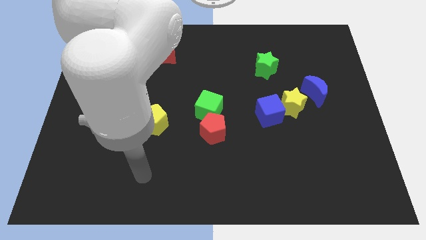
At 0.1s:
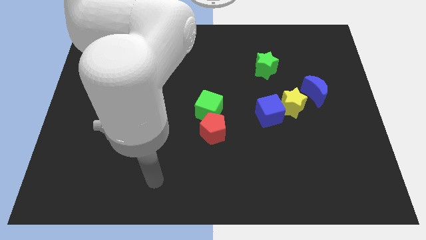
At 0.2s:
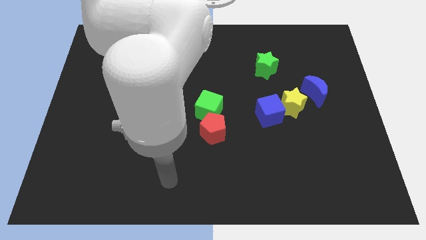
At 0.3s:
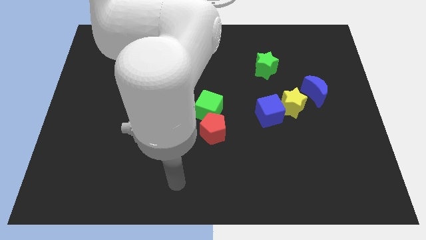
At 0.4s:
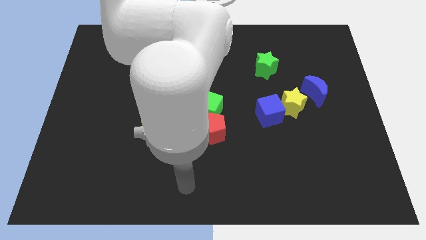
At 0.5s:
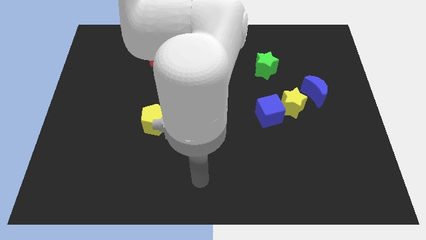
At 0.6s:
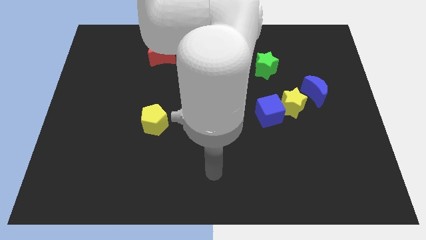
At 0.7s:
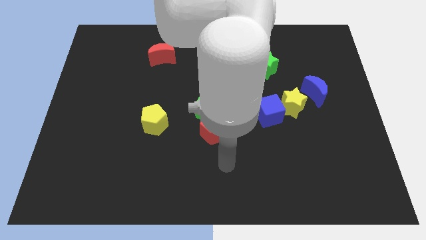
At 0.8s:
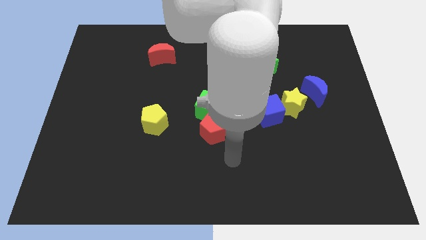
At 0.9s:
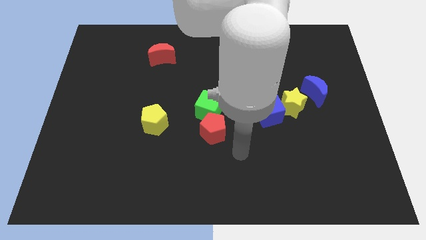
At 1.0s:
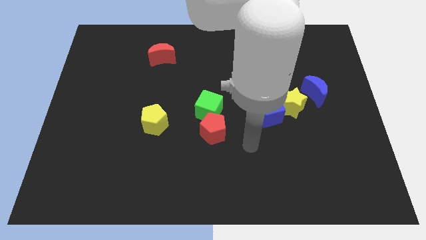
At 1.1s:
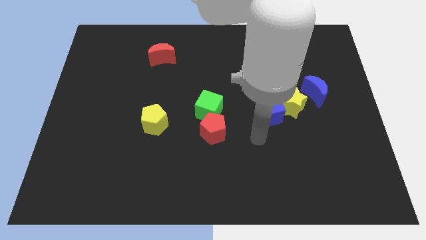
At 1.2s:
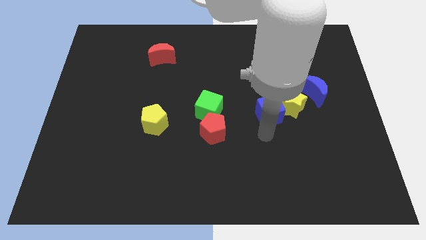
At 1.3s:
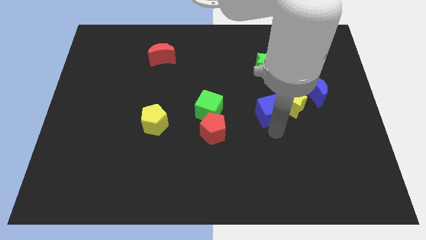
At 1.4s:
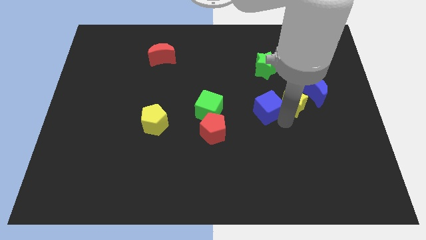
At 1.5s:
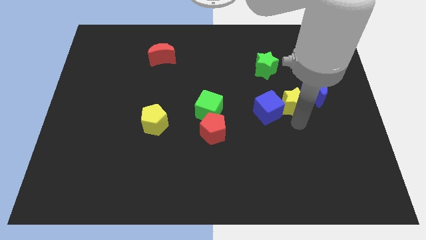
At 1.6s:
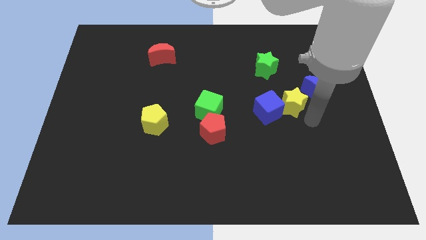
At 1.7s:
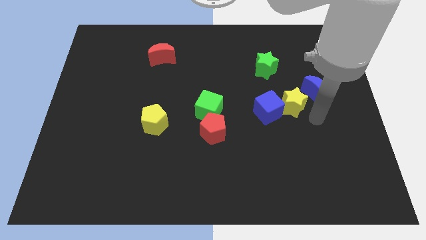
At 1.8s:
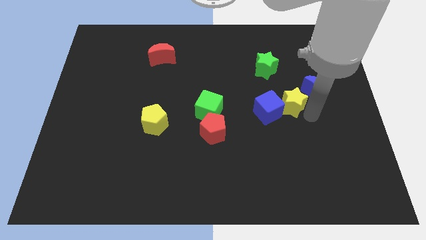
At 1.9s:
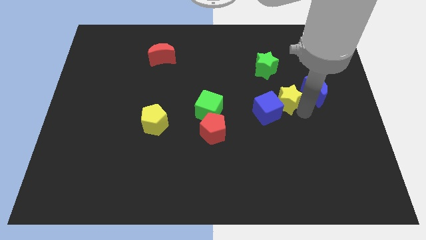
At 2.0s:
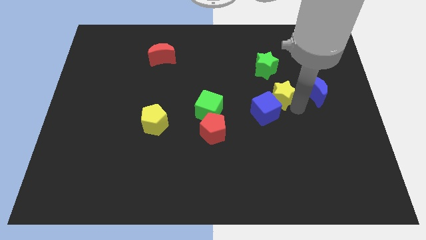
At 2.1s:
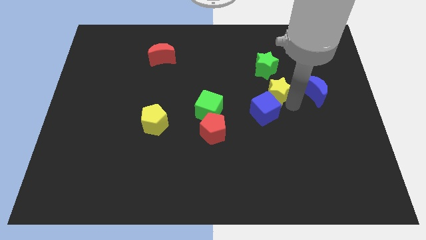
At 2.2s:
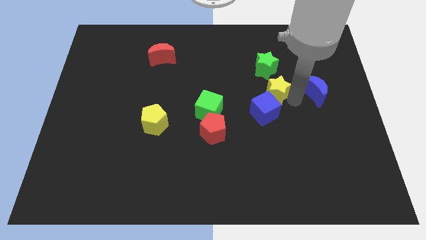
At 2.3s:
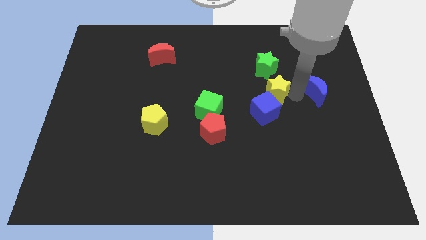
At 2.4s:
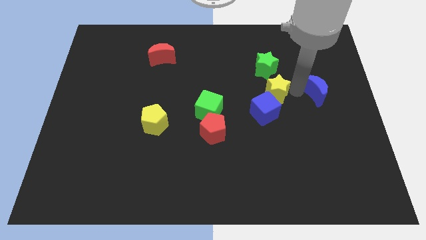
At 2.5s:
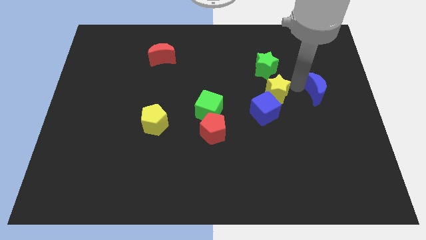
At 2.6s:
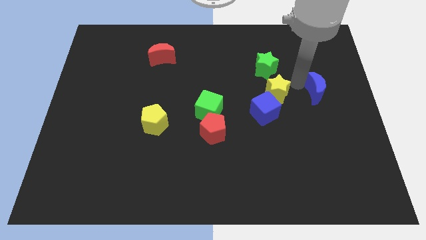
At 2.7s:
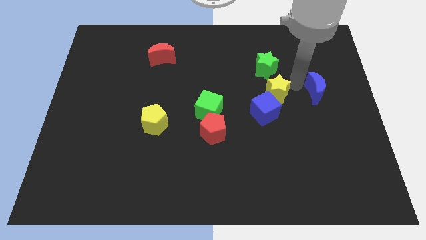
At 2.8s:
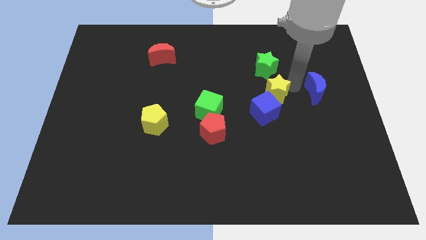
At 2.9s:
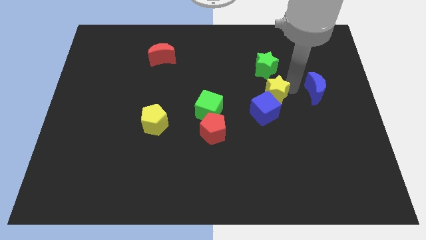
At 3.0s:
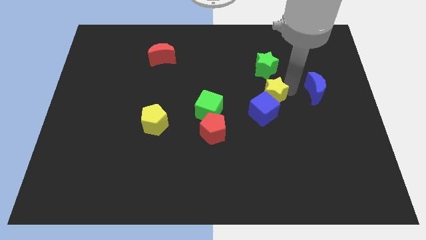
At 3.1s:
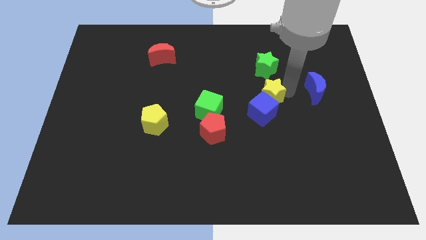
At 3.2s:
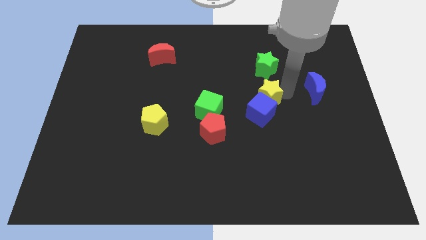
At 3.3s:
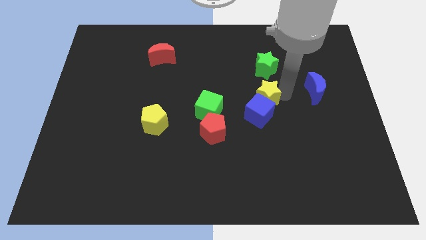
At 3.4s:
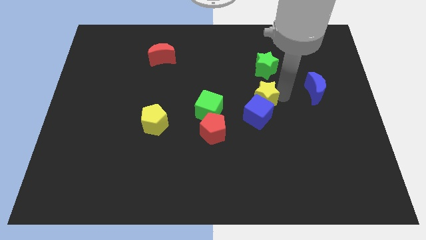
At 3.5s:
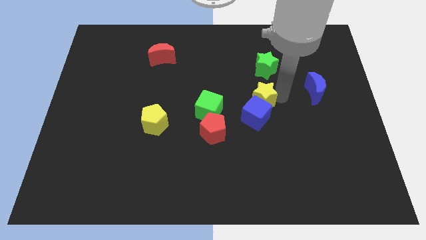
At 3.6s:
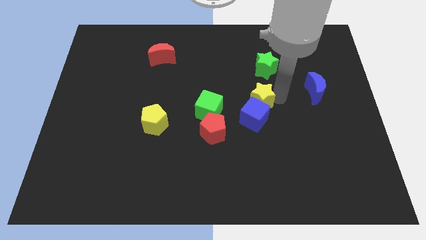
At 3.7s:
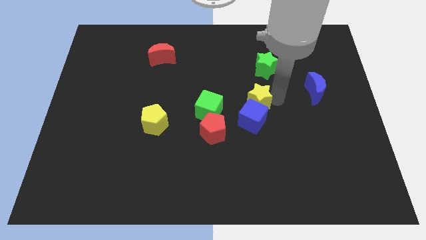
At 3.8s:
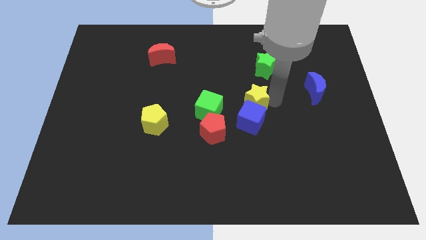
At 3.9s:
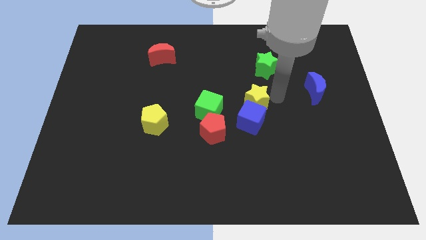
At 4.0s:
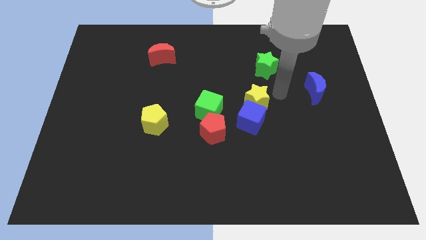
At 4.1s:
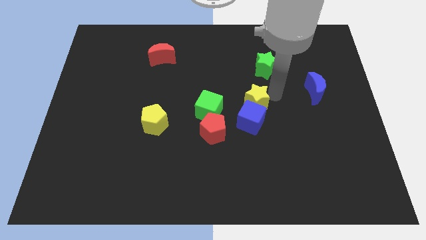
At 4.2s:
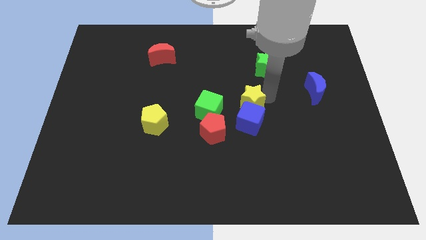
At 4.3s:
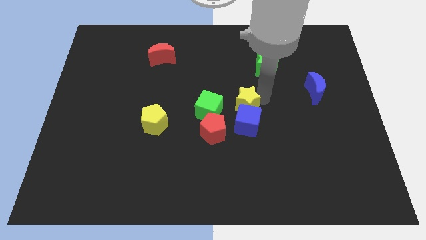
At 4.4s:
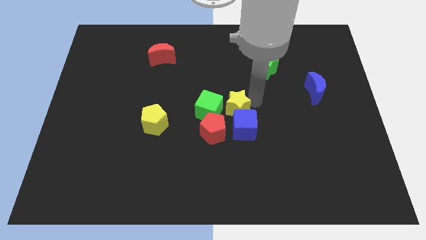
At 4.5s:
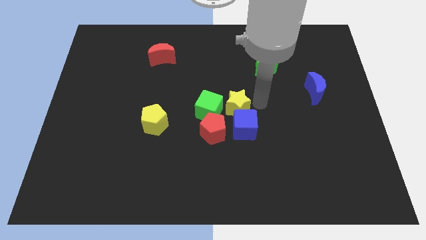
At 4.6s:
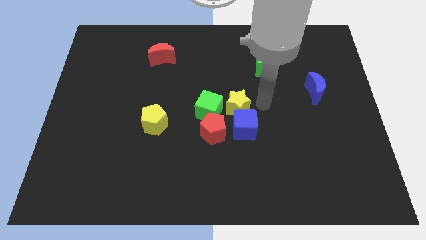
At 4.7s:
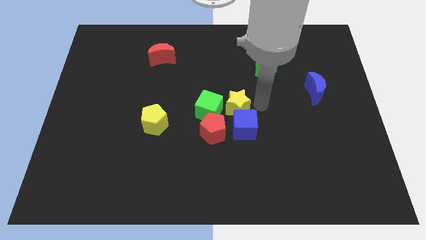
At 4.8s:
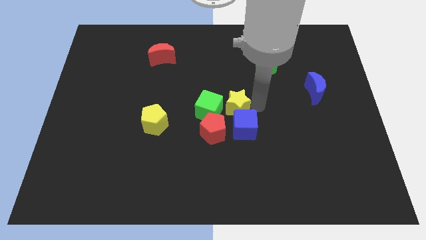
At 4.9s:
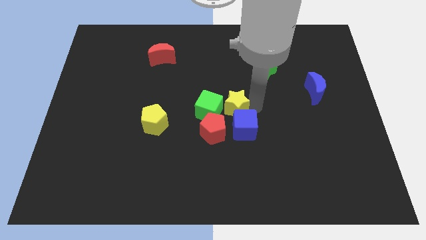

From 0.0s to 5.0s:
put the yellow star next to the green cube

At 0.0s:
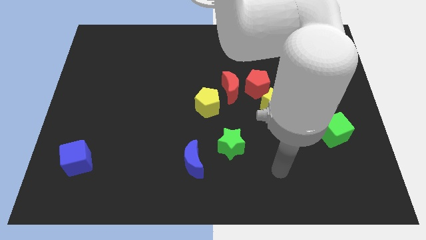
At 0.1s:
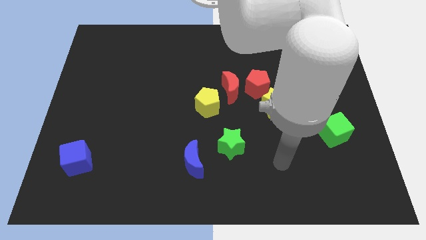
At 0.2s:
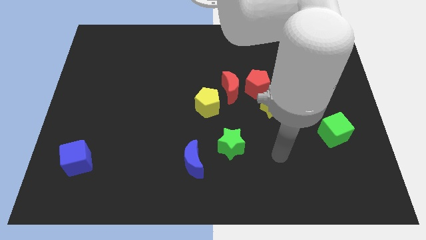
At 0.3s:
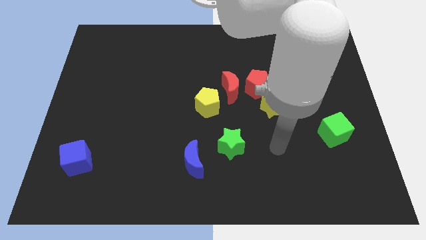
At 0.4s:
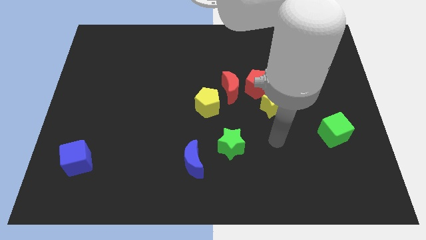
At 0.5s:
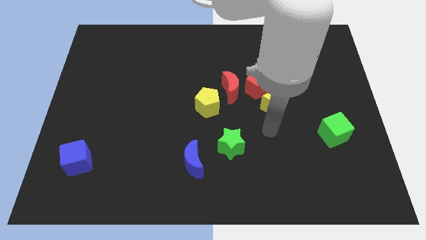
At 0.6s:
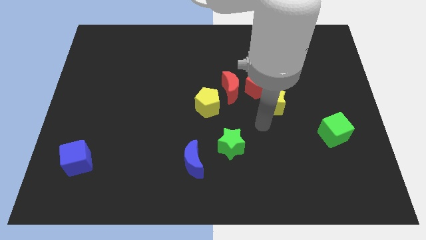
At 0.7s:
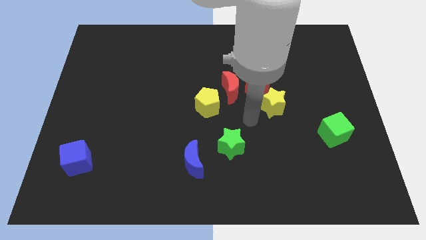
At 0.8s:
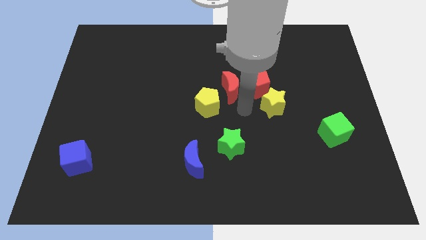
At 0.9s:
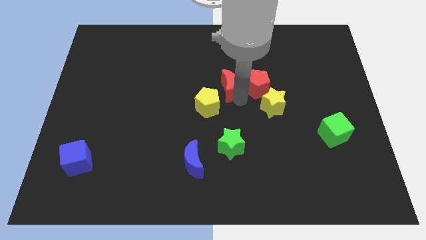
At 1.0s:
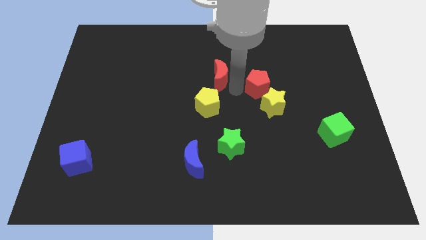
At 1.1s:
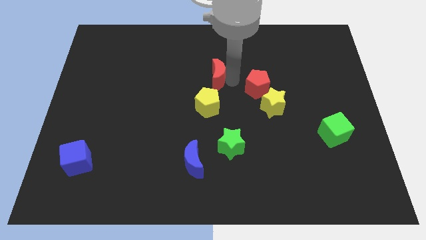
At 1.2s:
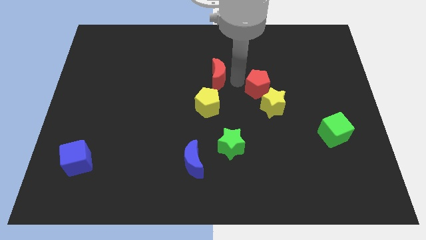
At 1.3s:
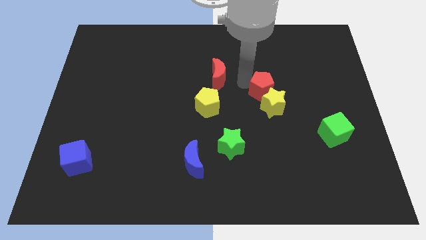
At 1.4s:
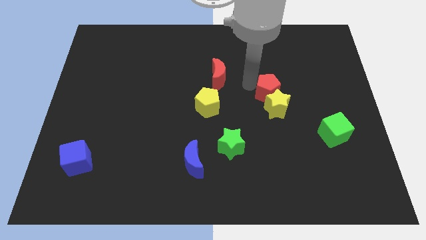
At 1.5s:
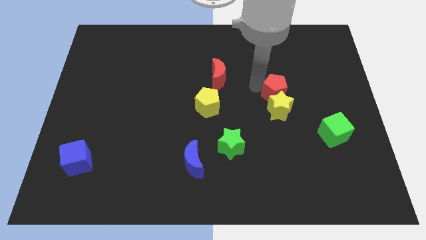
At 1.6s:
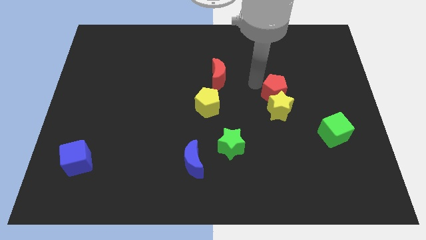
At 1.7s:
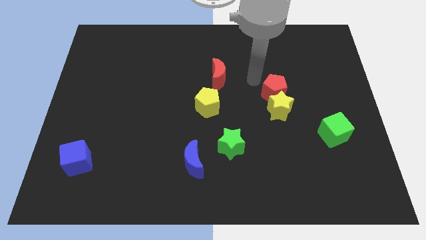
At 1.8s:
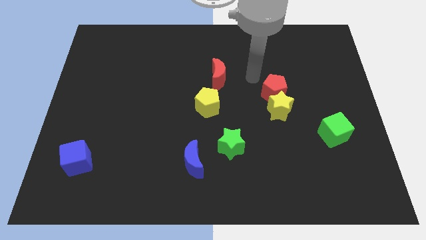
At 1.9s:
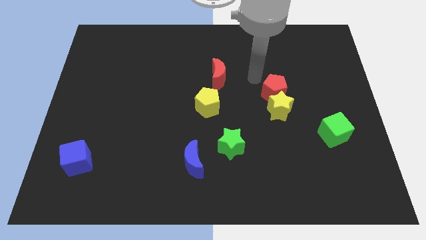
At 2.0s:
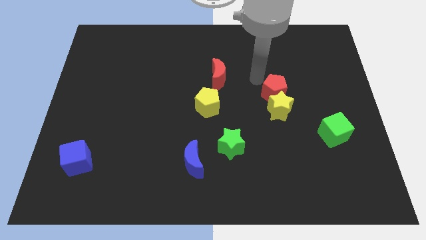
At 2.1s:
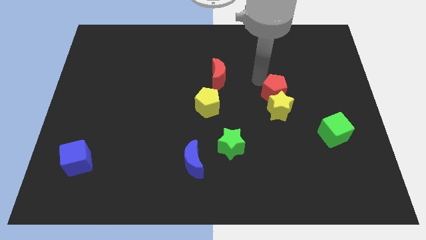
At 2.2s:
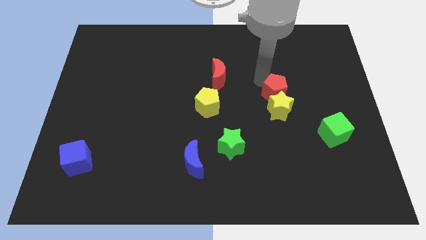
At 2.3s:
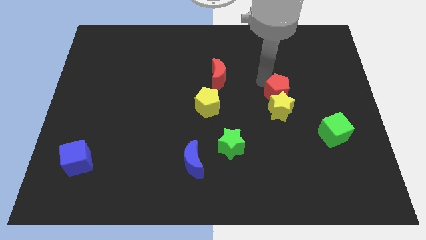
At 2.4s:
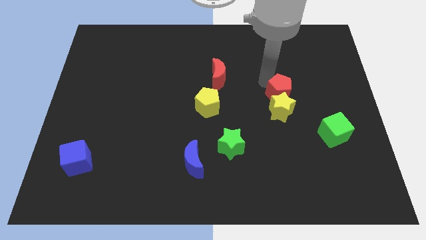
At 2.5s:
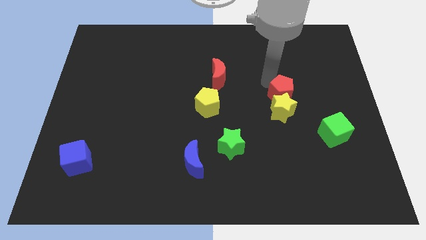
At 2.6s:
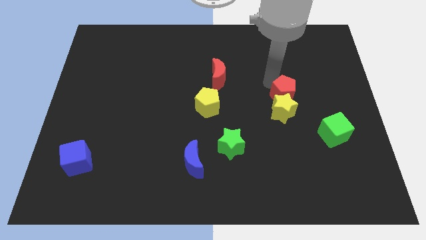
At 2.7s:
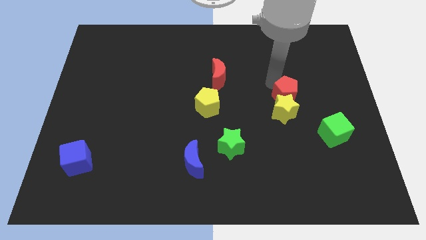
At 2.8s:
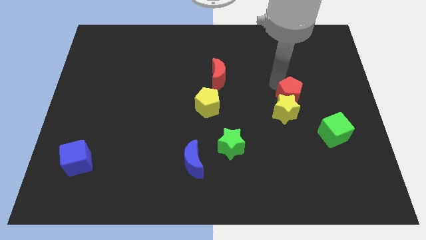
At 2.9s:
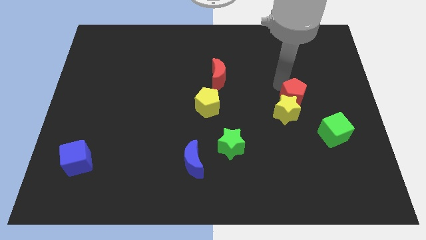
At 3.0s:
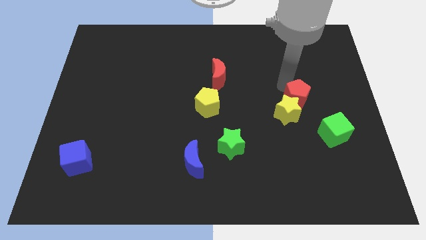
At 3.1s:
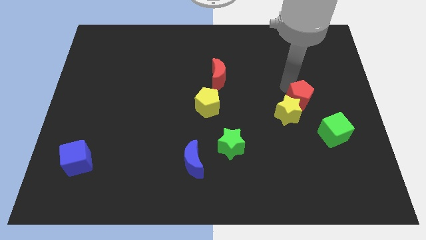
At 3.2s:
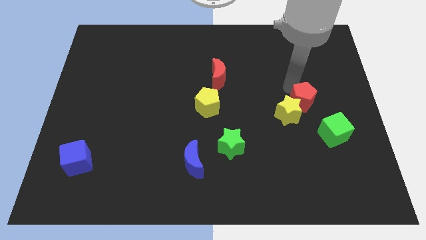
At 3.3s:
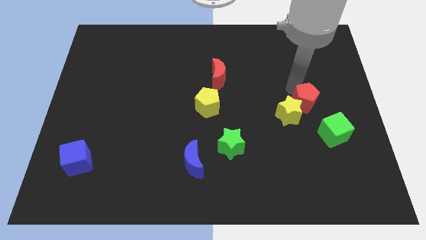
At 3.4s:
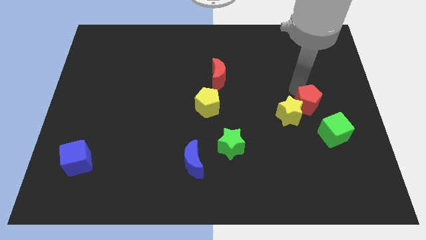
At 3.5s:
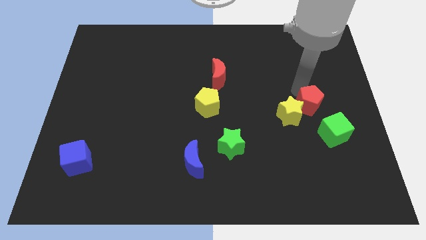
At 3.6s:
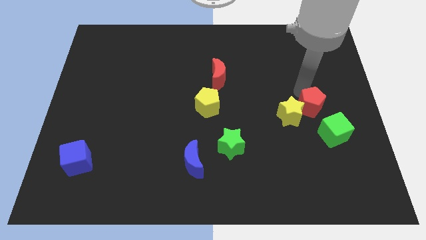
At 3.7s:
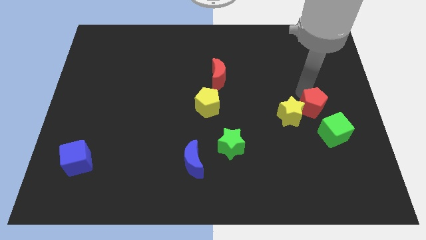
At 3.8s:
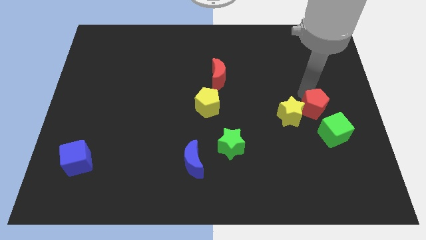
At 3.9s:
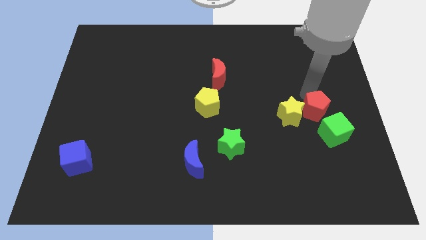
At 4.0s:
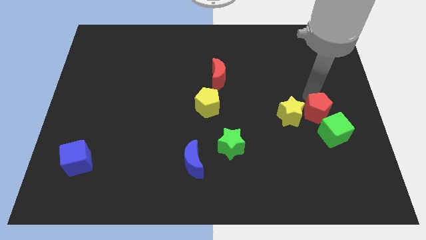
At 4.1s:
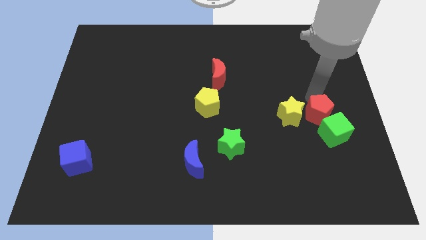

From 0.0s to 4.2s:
push the red pentagon towards the green cube
